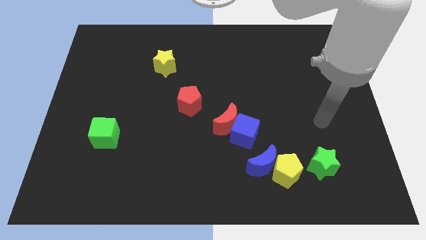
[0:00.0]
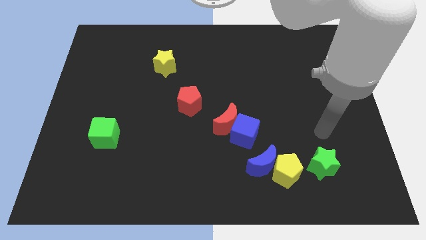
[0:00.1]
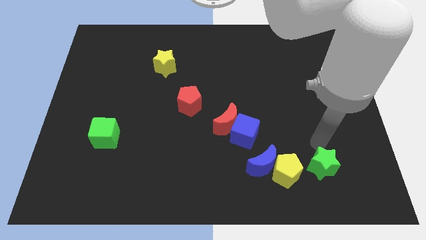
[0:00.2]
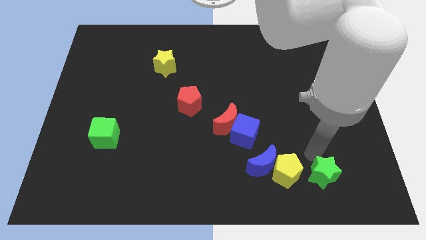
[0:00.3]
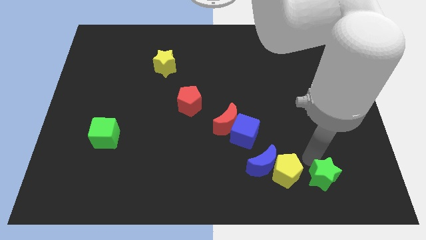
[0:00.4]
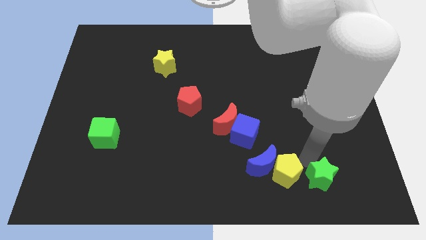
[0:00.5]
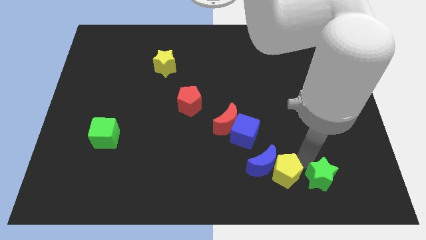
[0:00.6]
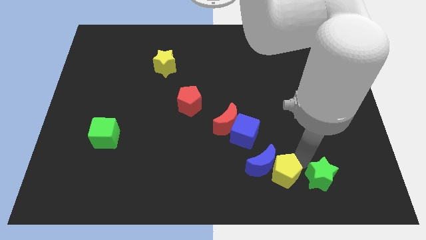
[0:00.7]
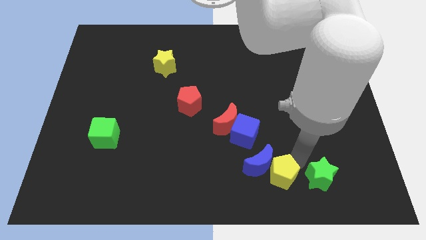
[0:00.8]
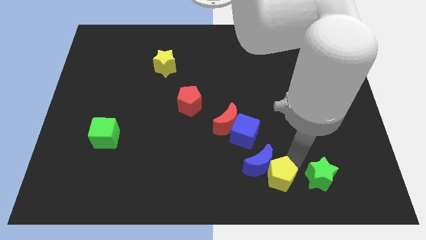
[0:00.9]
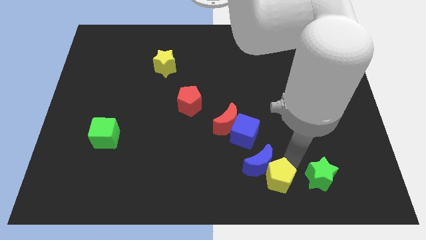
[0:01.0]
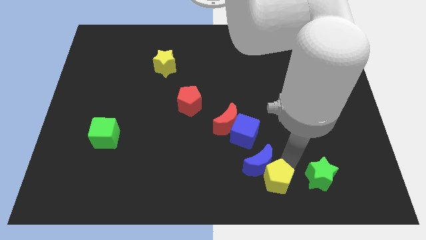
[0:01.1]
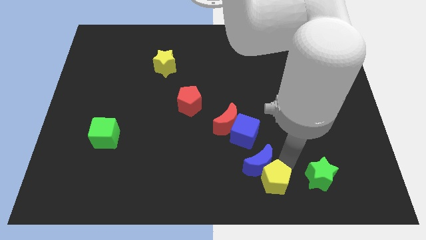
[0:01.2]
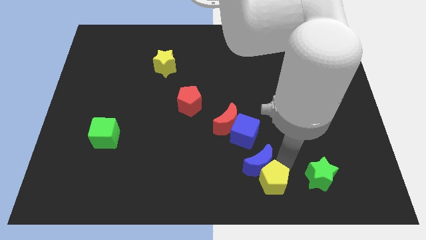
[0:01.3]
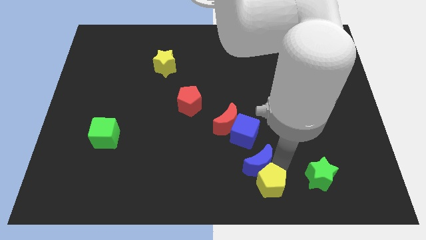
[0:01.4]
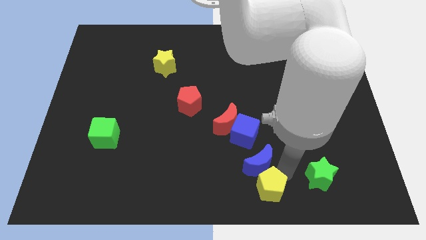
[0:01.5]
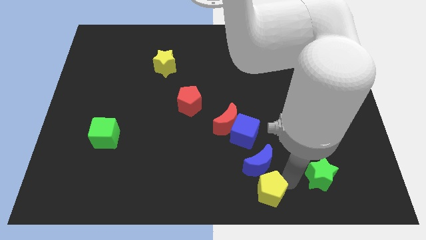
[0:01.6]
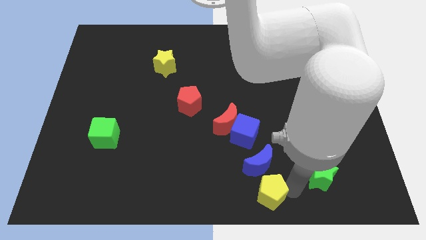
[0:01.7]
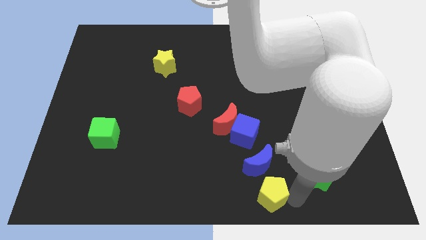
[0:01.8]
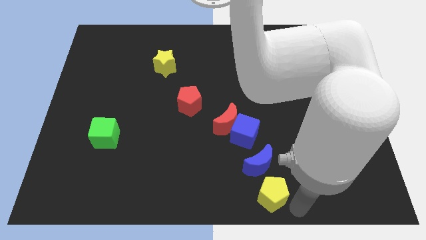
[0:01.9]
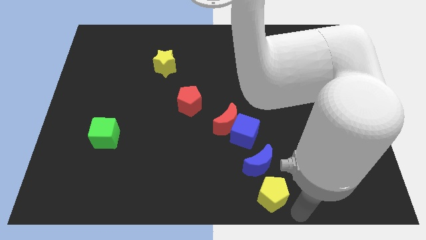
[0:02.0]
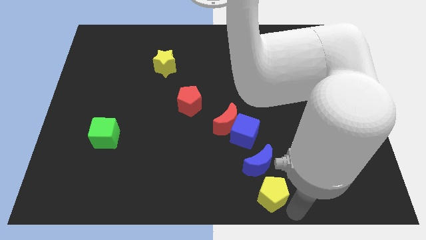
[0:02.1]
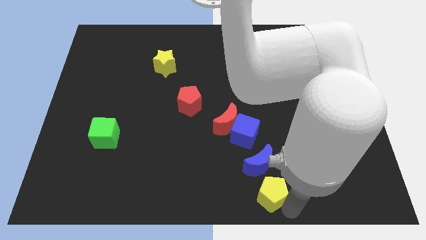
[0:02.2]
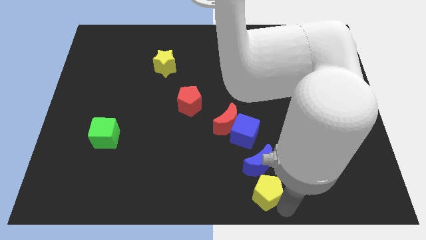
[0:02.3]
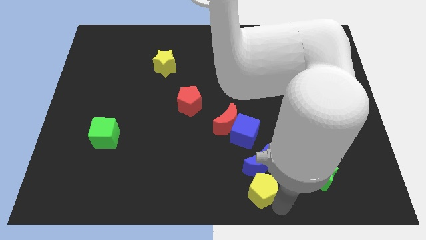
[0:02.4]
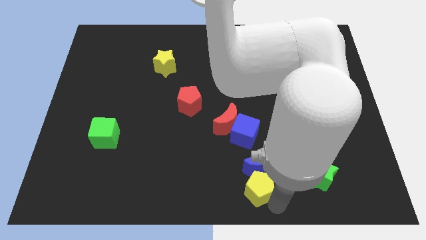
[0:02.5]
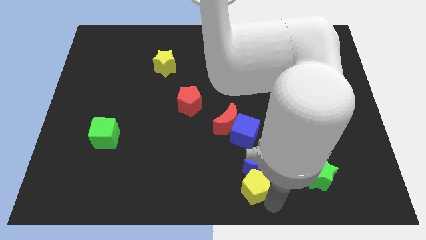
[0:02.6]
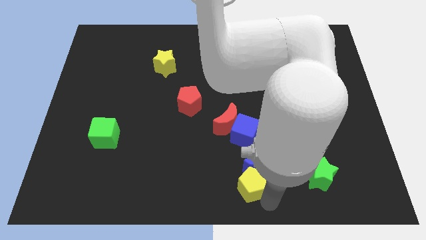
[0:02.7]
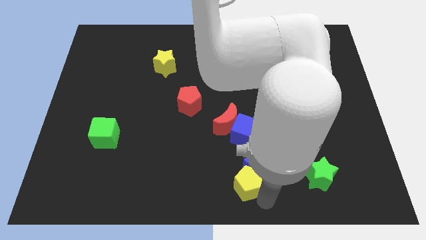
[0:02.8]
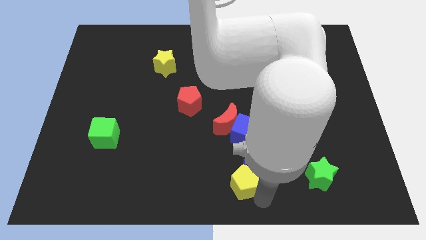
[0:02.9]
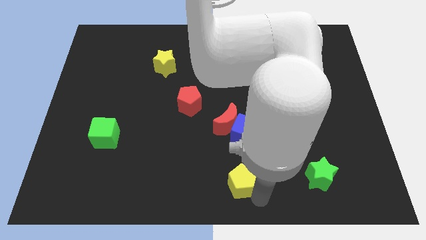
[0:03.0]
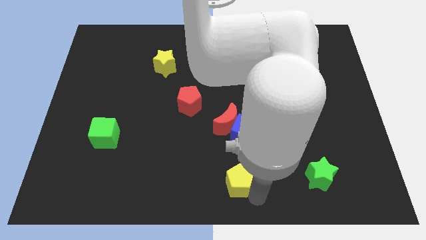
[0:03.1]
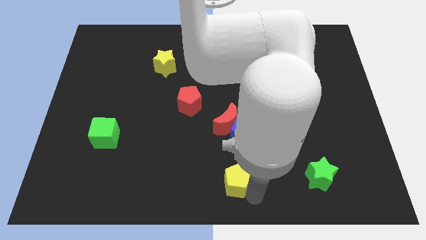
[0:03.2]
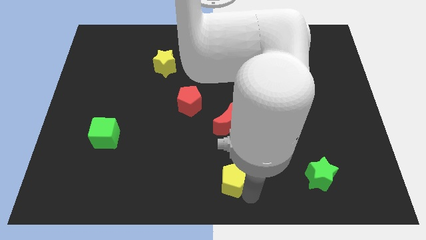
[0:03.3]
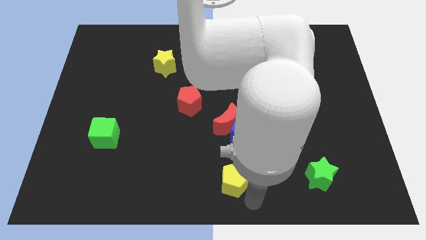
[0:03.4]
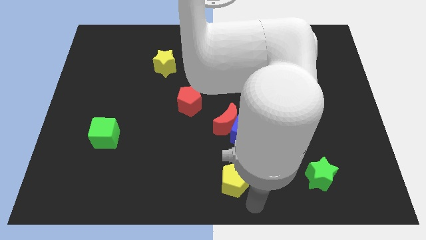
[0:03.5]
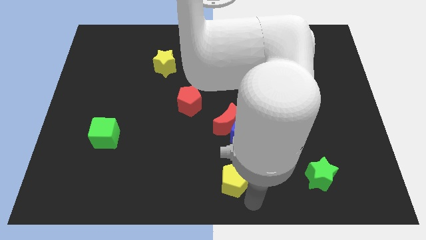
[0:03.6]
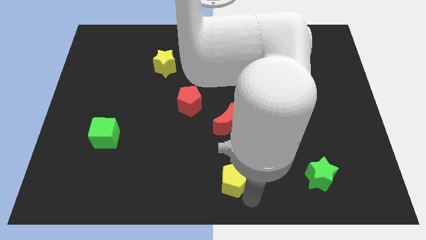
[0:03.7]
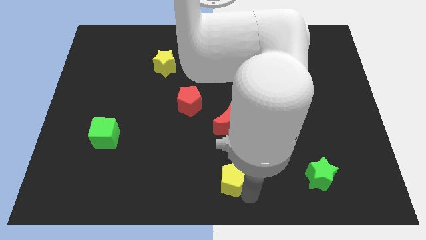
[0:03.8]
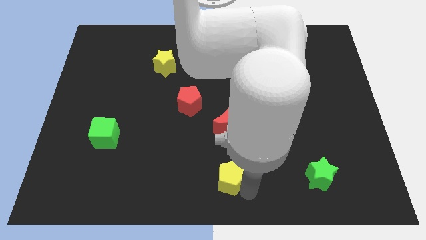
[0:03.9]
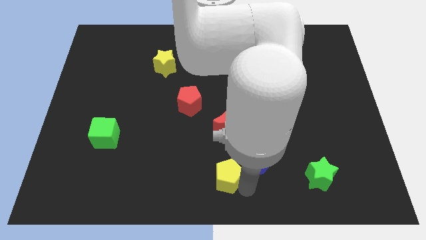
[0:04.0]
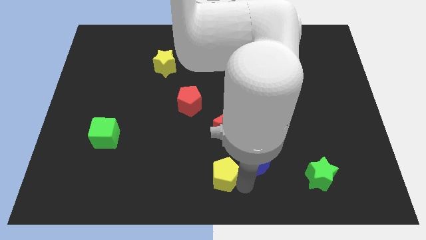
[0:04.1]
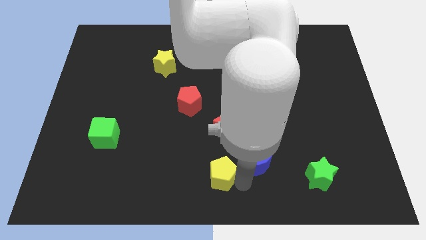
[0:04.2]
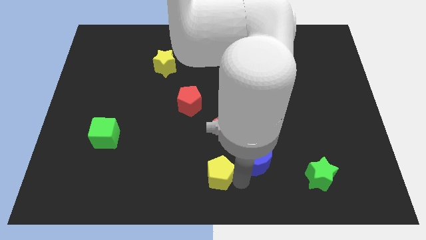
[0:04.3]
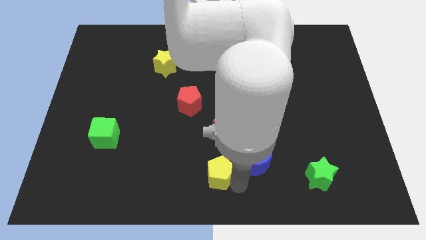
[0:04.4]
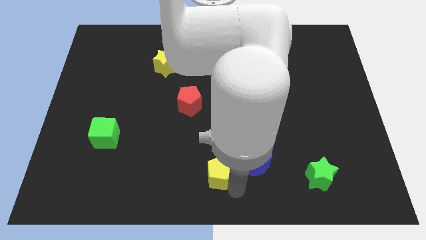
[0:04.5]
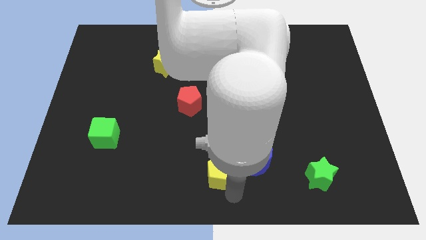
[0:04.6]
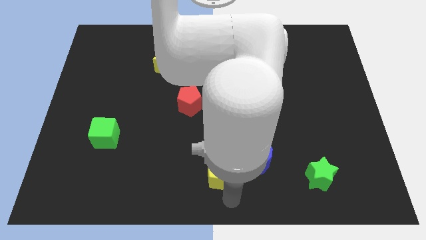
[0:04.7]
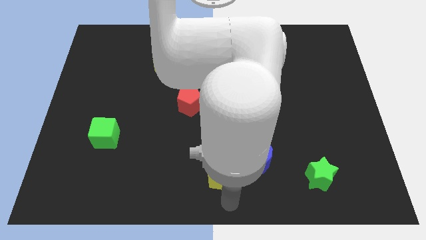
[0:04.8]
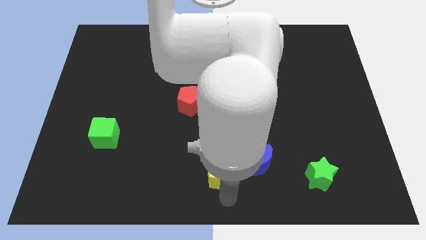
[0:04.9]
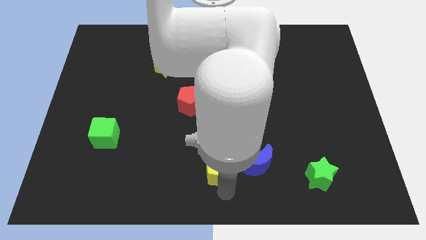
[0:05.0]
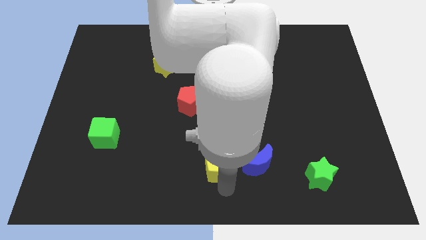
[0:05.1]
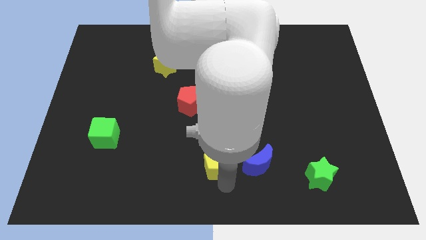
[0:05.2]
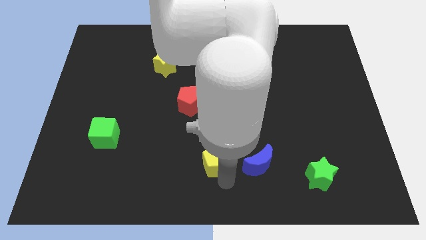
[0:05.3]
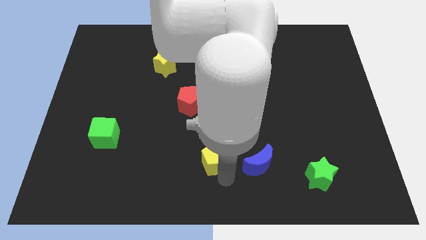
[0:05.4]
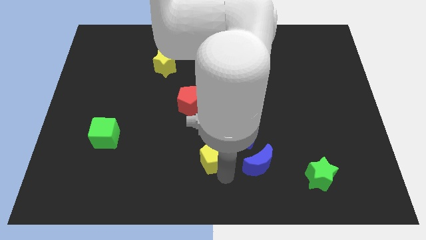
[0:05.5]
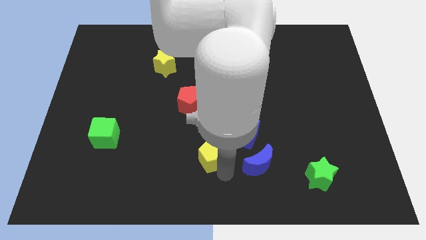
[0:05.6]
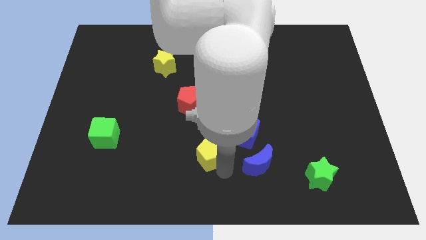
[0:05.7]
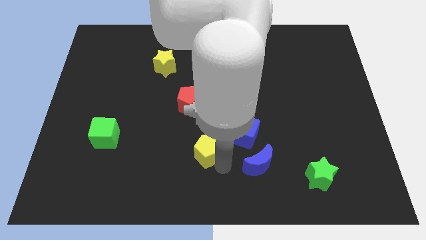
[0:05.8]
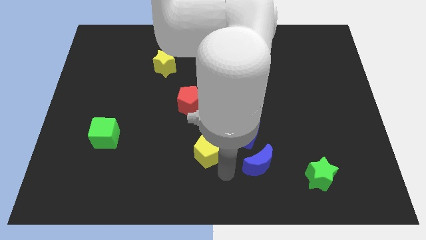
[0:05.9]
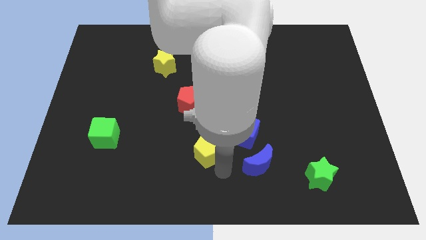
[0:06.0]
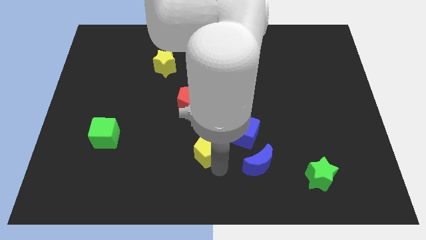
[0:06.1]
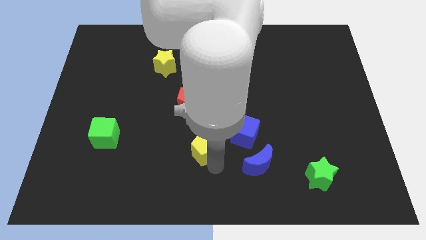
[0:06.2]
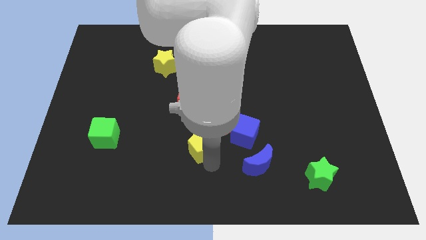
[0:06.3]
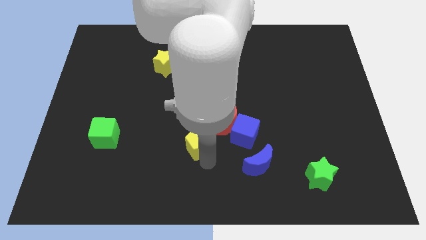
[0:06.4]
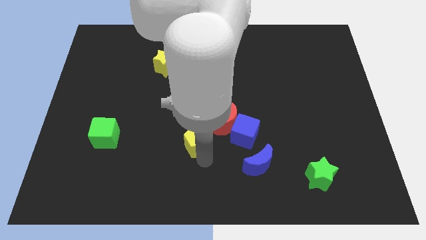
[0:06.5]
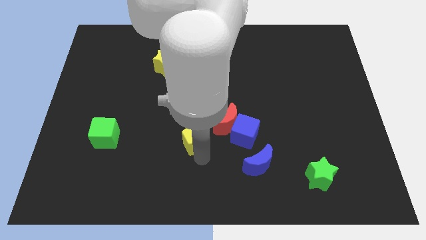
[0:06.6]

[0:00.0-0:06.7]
push the yellow pentagon left of the red moon
